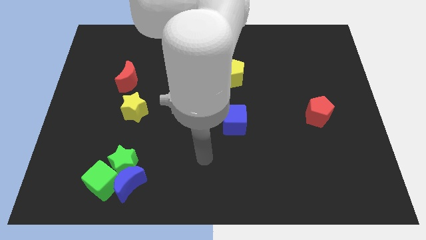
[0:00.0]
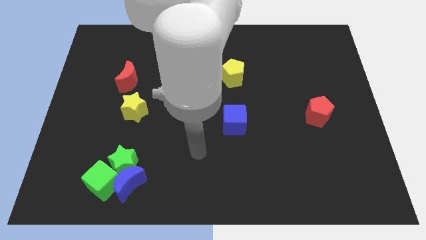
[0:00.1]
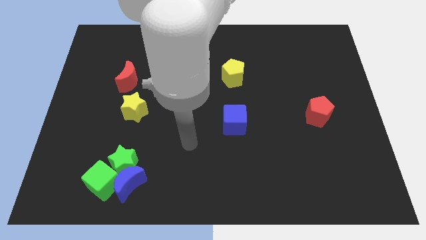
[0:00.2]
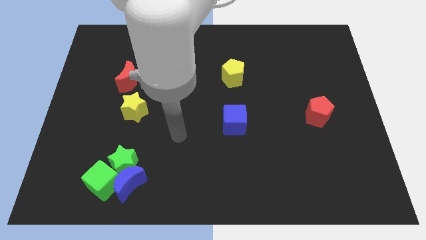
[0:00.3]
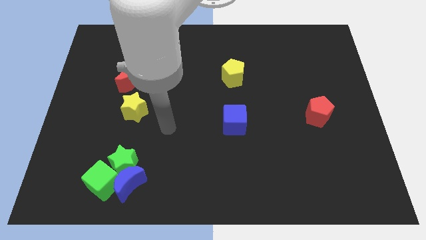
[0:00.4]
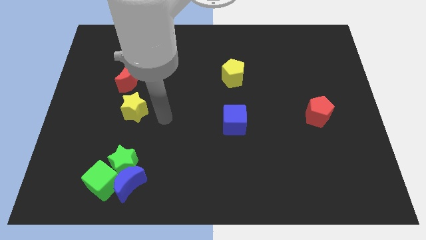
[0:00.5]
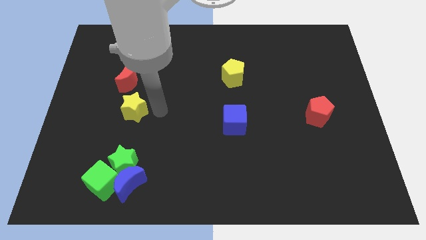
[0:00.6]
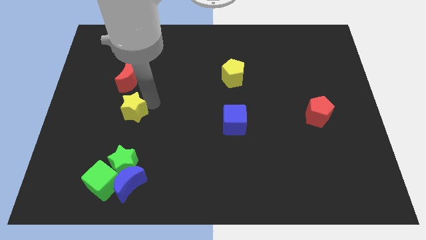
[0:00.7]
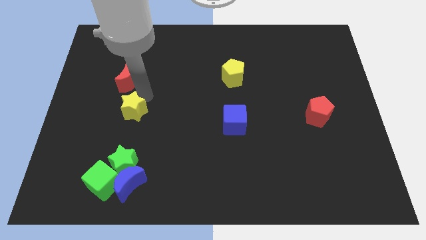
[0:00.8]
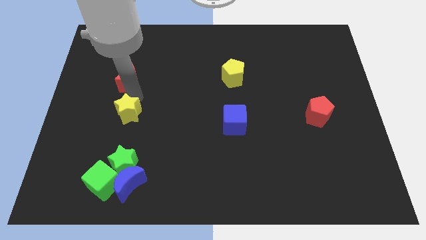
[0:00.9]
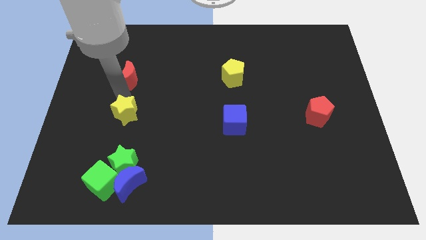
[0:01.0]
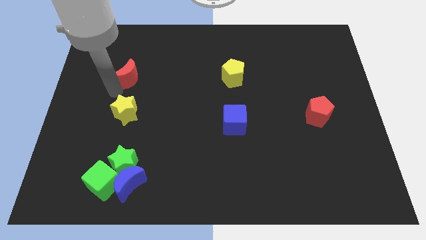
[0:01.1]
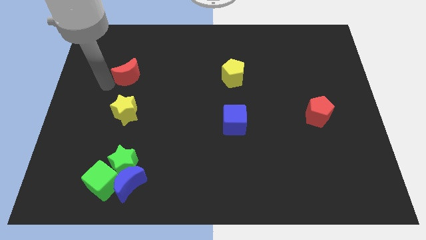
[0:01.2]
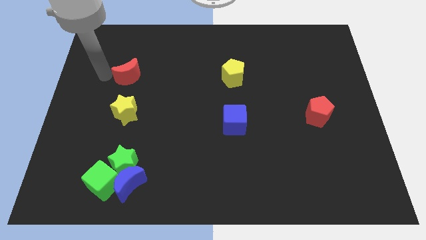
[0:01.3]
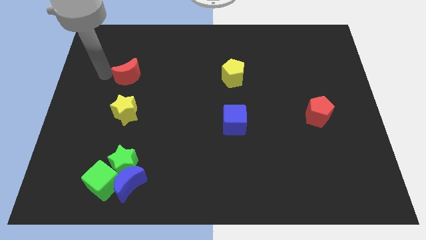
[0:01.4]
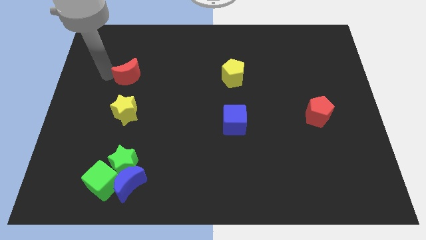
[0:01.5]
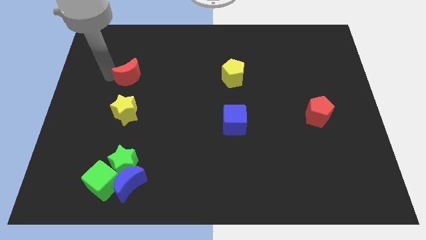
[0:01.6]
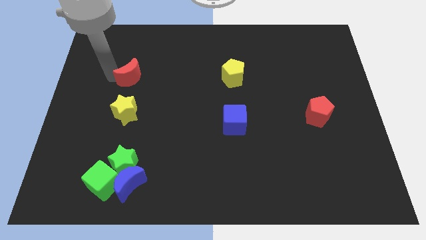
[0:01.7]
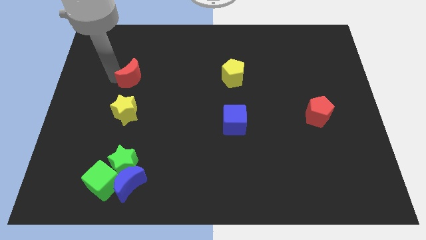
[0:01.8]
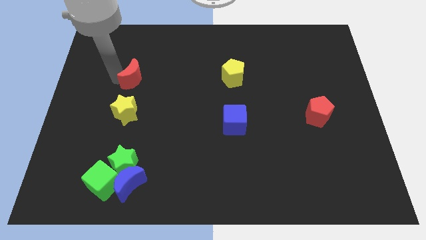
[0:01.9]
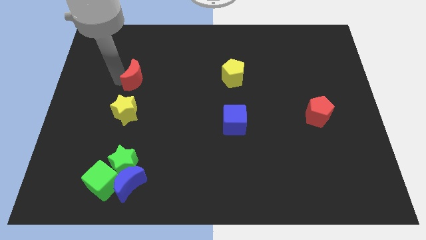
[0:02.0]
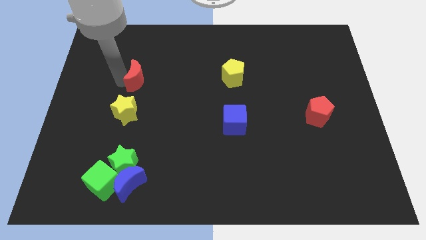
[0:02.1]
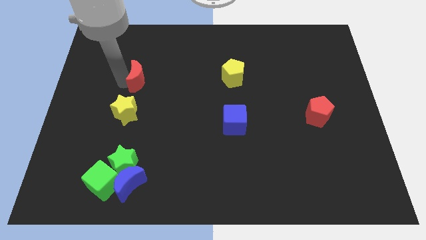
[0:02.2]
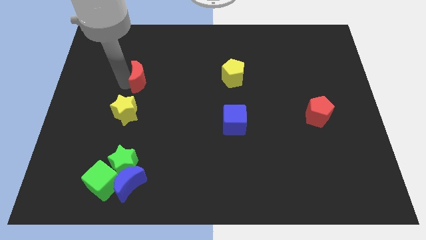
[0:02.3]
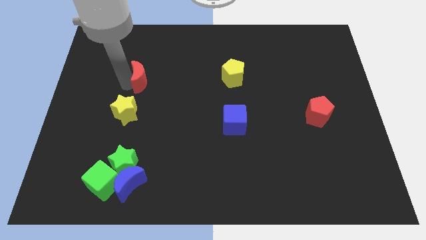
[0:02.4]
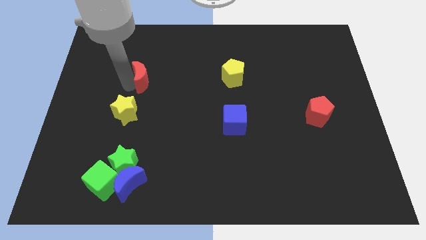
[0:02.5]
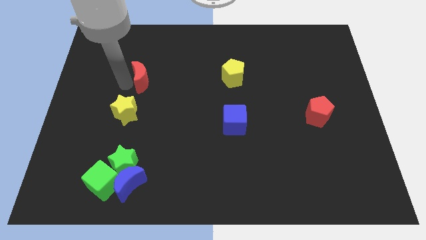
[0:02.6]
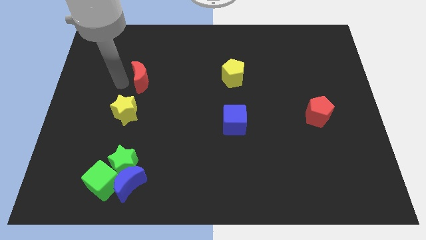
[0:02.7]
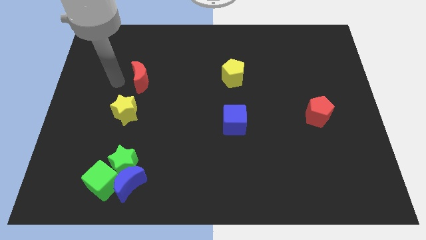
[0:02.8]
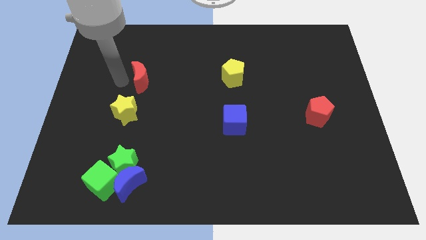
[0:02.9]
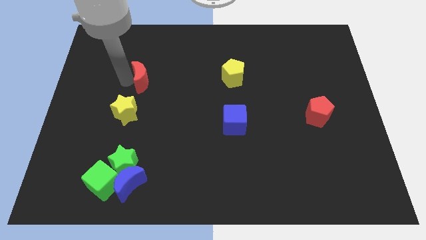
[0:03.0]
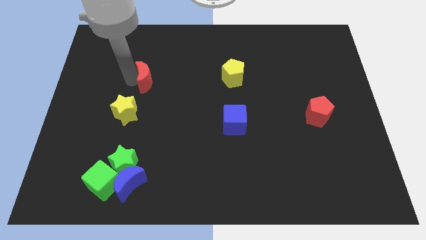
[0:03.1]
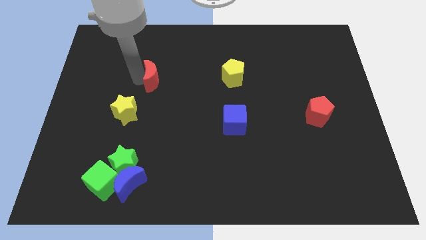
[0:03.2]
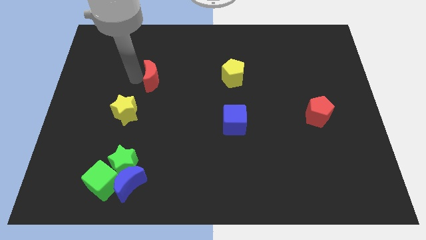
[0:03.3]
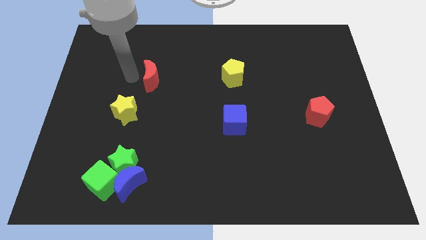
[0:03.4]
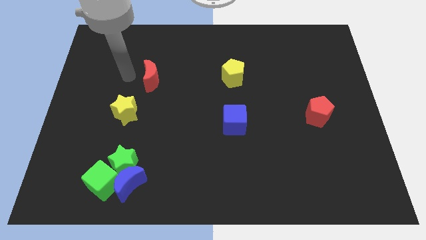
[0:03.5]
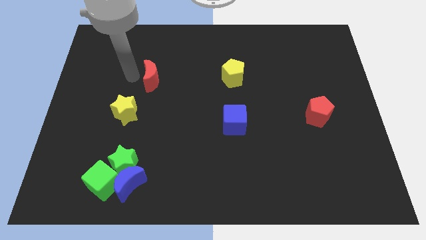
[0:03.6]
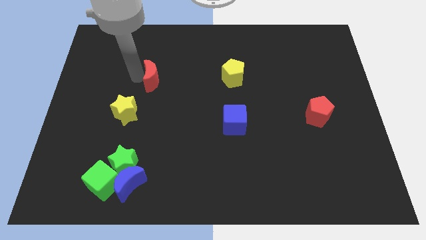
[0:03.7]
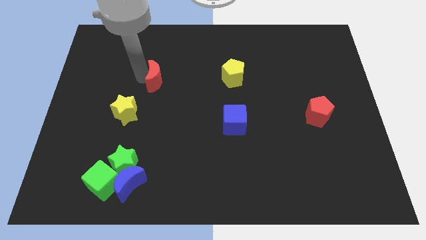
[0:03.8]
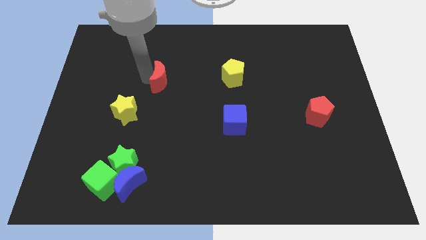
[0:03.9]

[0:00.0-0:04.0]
slide the red moon a little bit right

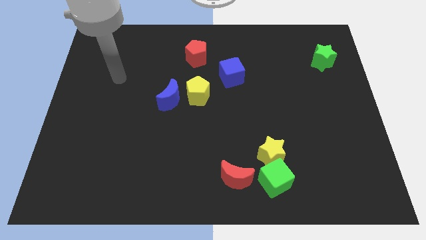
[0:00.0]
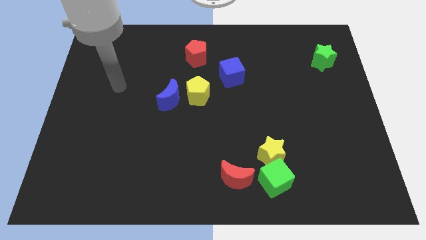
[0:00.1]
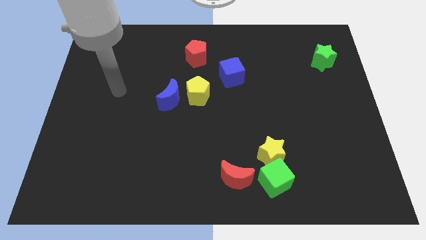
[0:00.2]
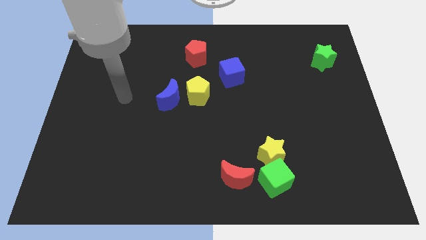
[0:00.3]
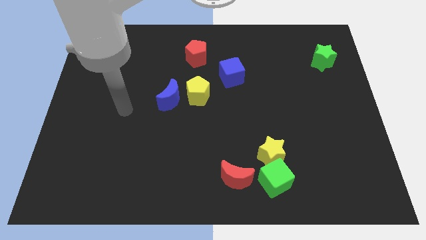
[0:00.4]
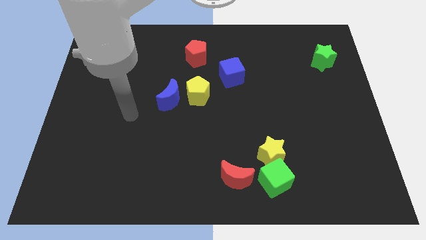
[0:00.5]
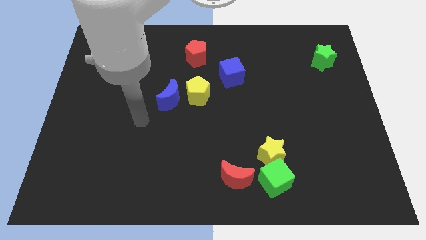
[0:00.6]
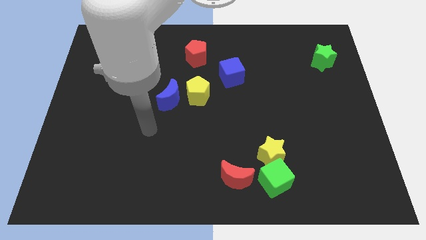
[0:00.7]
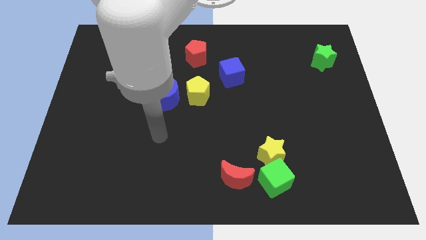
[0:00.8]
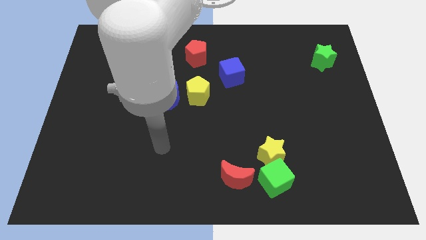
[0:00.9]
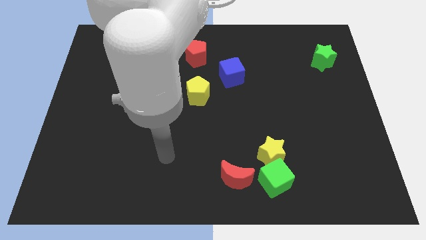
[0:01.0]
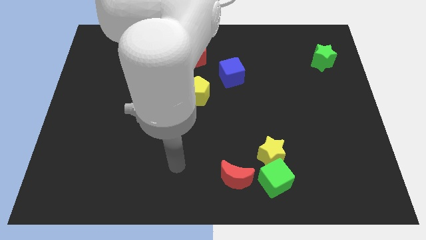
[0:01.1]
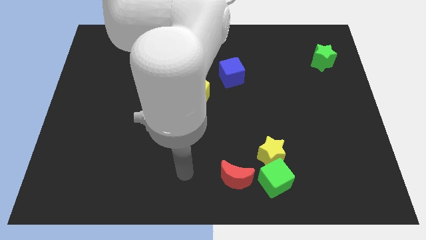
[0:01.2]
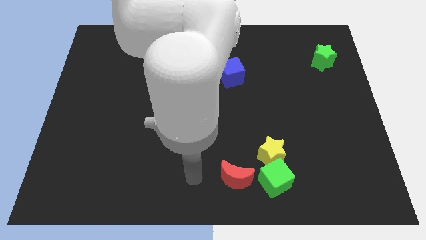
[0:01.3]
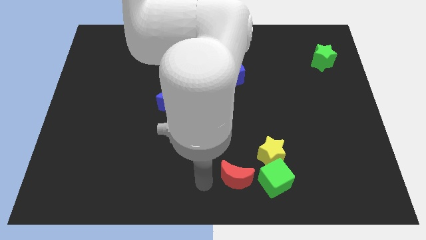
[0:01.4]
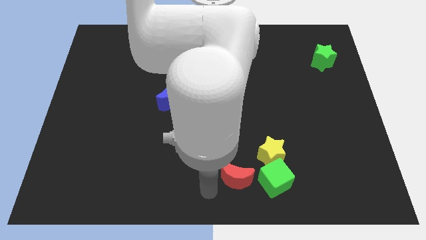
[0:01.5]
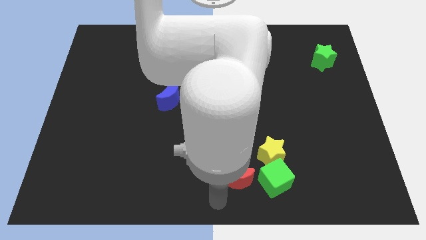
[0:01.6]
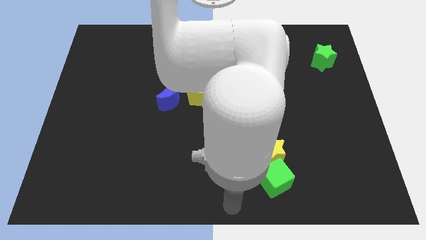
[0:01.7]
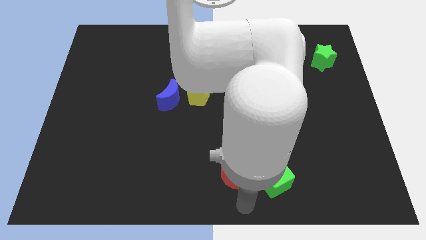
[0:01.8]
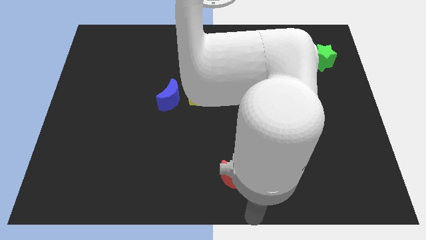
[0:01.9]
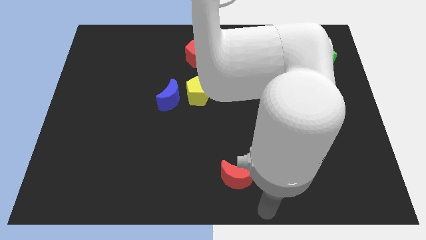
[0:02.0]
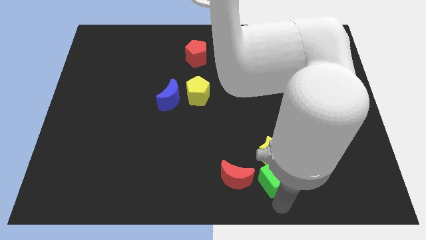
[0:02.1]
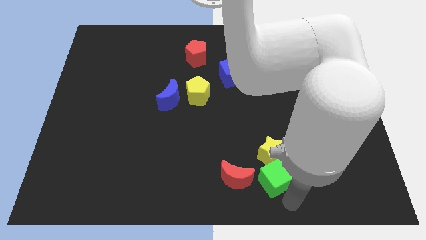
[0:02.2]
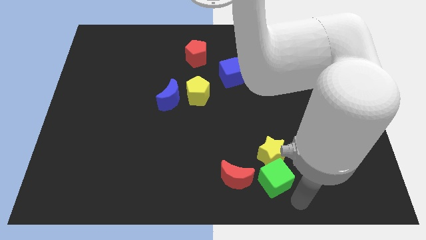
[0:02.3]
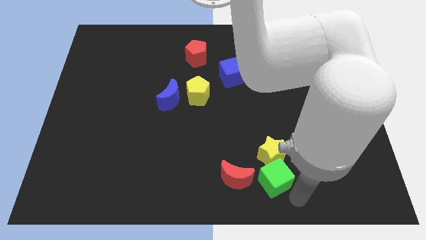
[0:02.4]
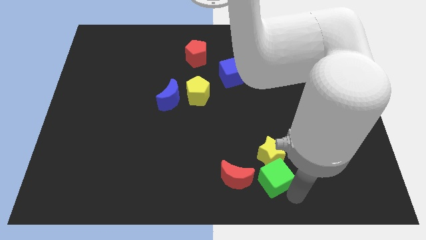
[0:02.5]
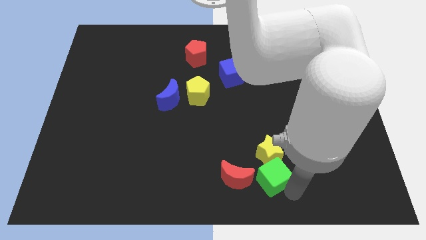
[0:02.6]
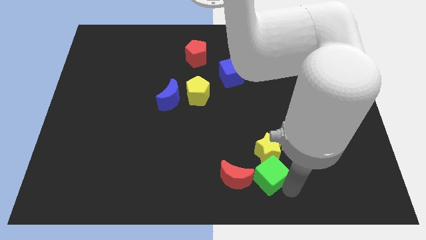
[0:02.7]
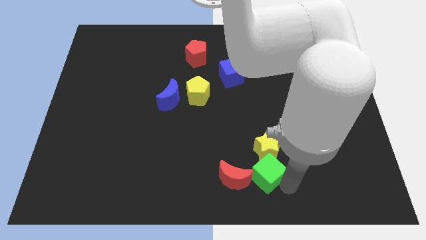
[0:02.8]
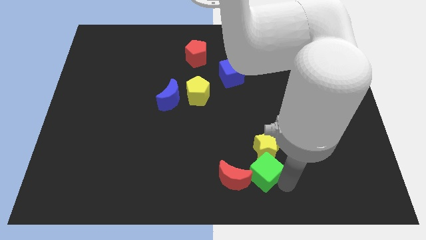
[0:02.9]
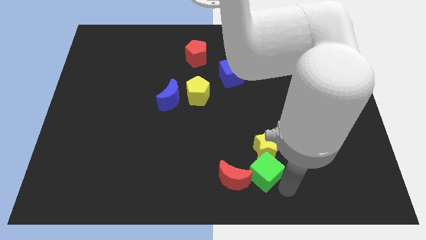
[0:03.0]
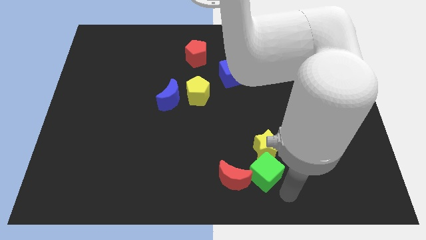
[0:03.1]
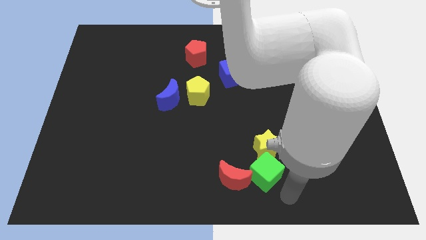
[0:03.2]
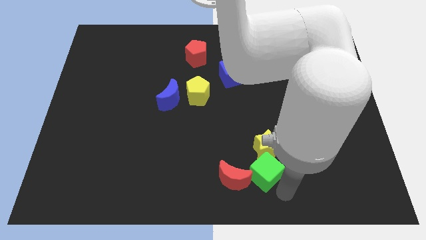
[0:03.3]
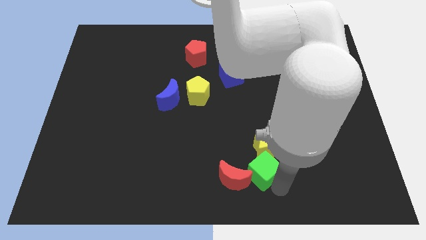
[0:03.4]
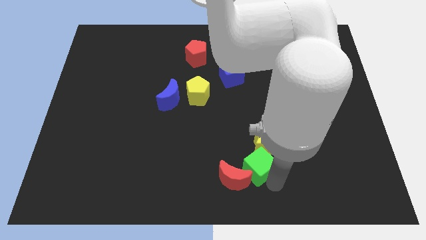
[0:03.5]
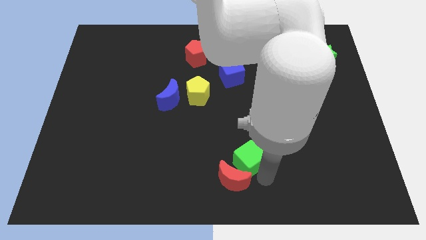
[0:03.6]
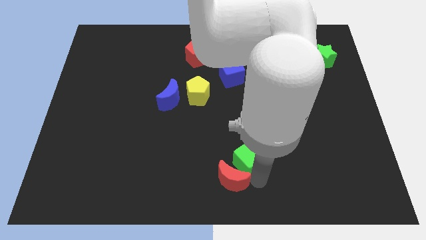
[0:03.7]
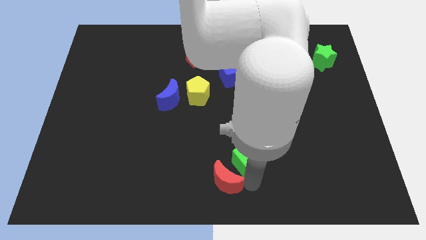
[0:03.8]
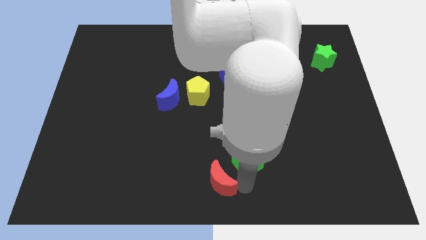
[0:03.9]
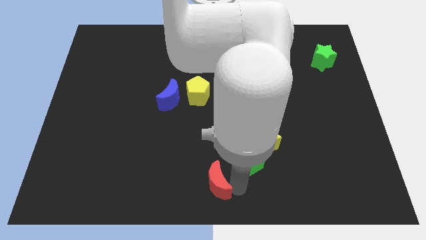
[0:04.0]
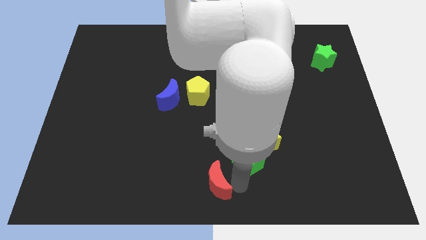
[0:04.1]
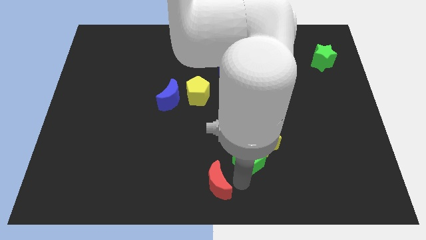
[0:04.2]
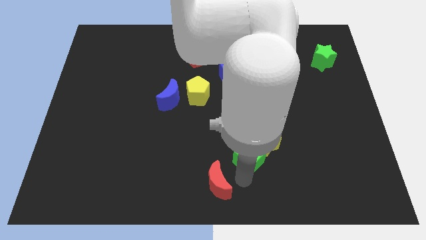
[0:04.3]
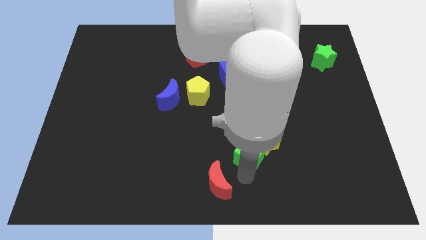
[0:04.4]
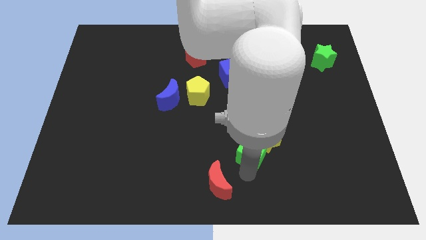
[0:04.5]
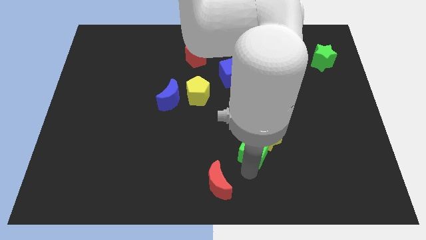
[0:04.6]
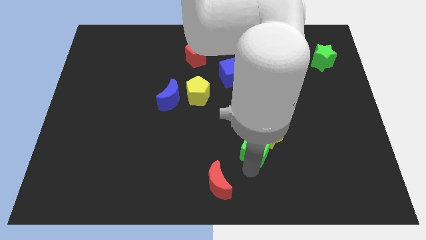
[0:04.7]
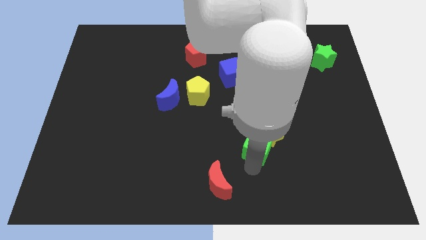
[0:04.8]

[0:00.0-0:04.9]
slightly move the green cube upwards
